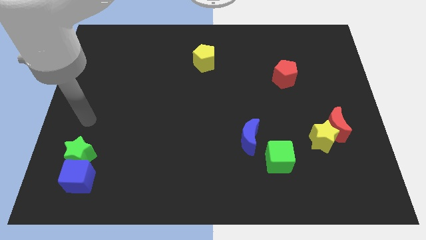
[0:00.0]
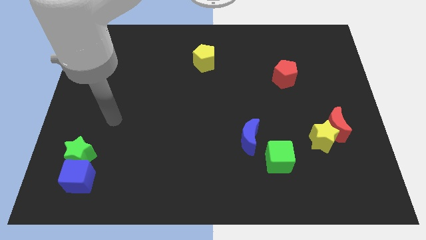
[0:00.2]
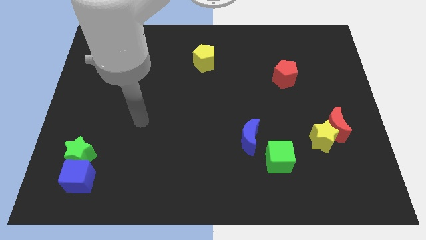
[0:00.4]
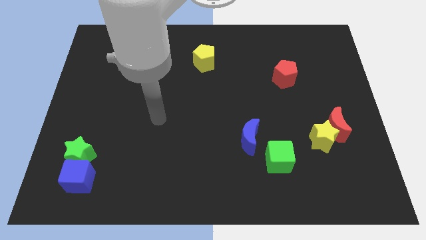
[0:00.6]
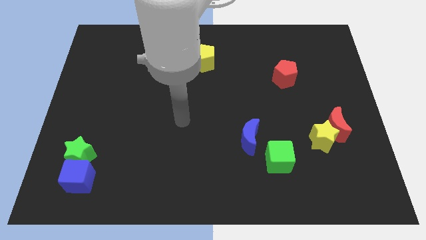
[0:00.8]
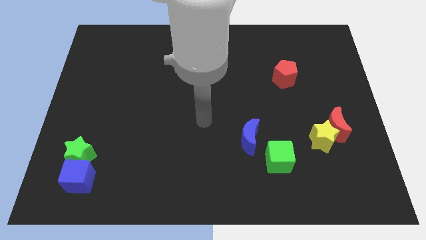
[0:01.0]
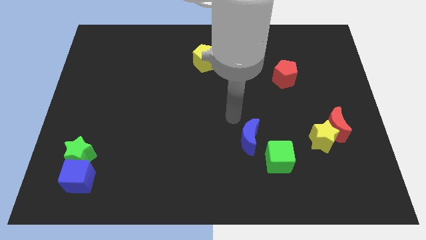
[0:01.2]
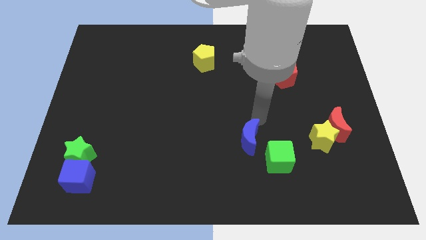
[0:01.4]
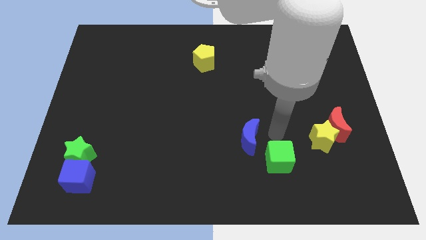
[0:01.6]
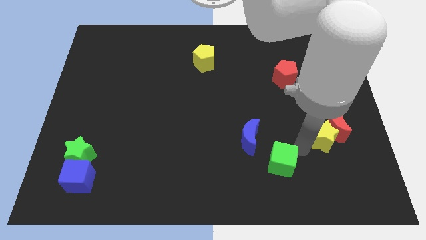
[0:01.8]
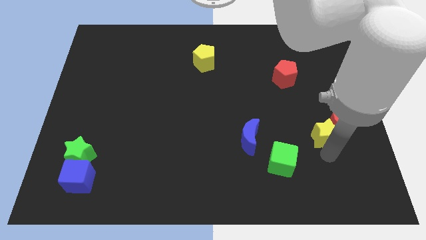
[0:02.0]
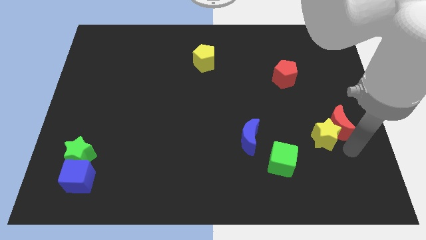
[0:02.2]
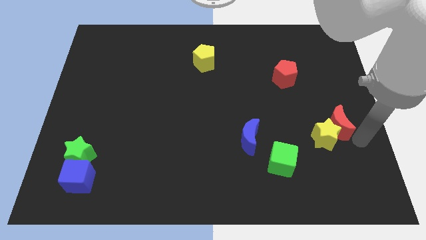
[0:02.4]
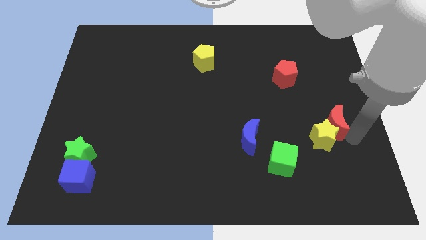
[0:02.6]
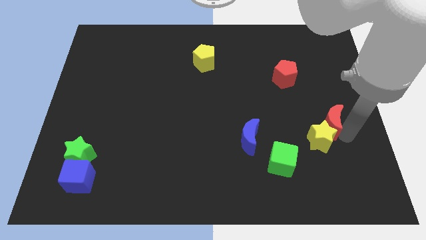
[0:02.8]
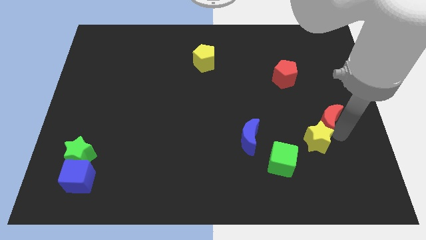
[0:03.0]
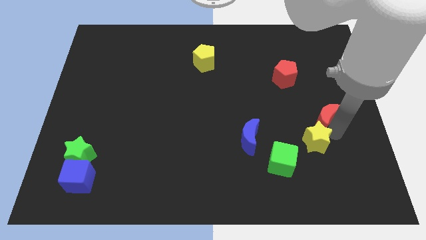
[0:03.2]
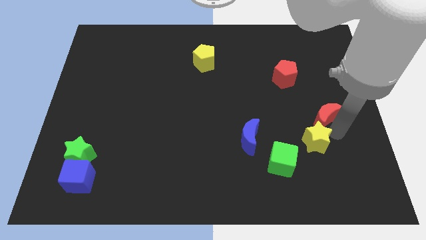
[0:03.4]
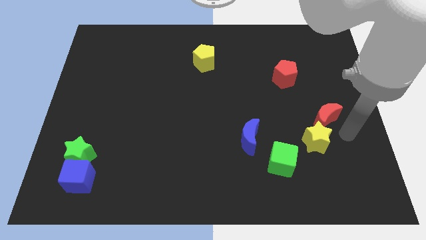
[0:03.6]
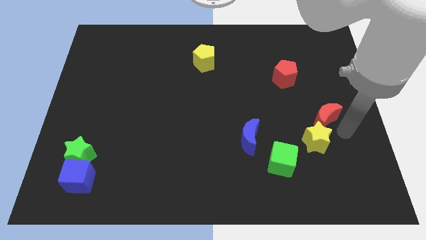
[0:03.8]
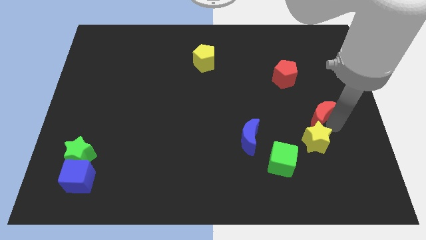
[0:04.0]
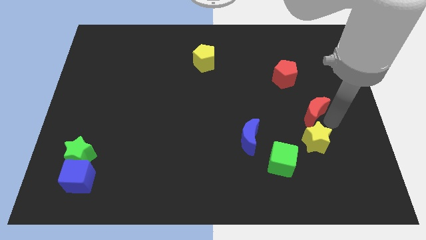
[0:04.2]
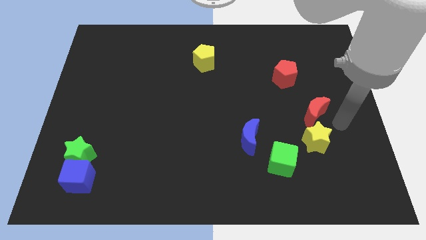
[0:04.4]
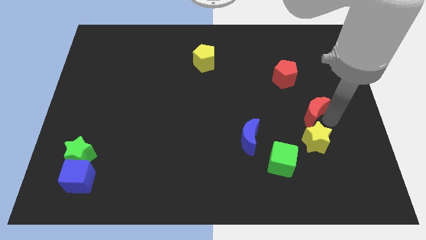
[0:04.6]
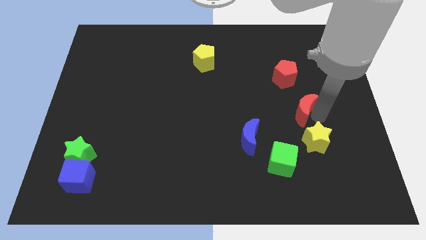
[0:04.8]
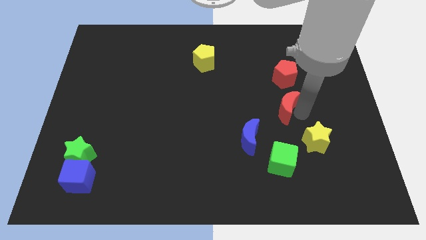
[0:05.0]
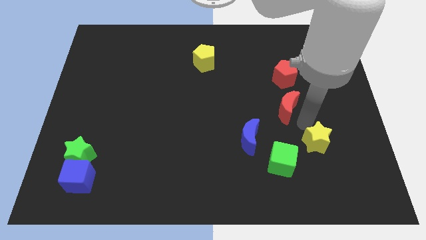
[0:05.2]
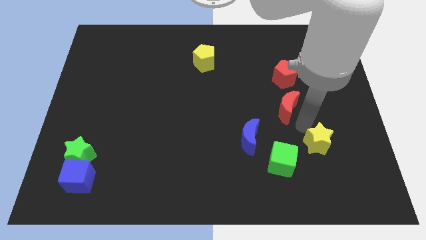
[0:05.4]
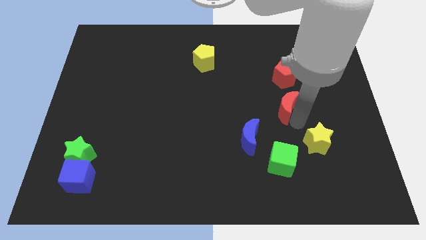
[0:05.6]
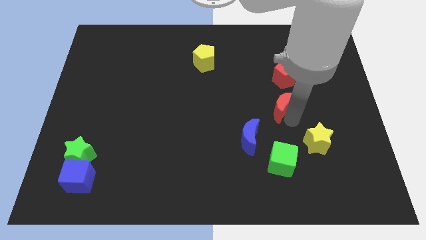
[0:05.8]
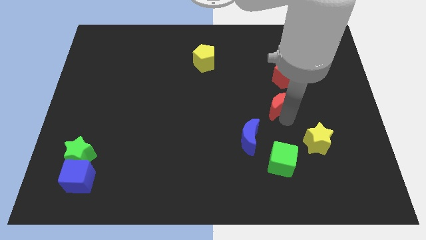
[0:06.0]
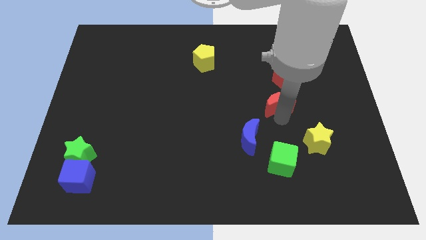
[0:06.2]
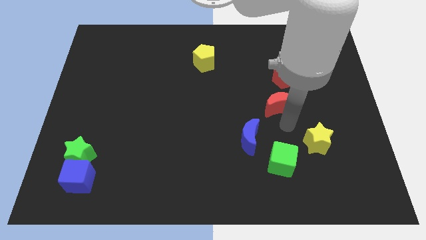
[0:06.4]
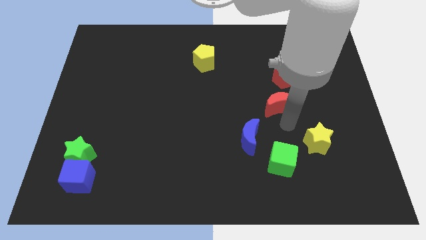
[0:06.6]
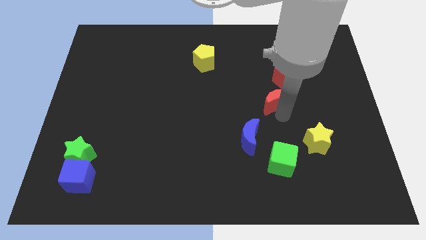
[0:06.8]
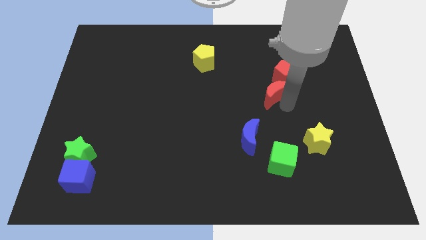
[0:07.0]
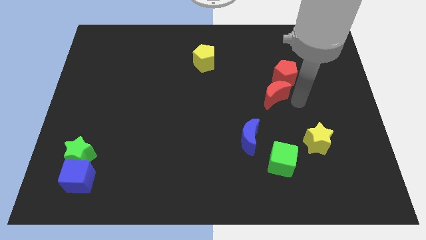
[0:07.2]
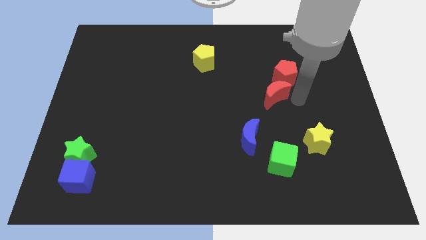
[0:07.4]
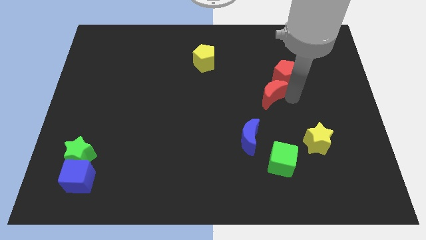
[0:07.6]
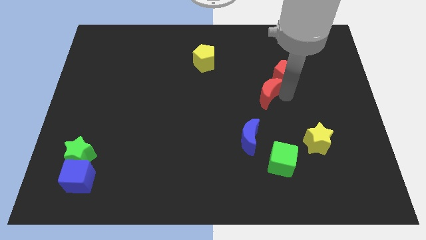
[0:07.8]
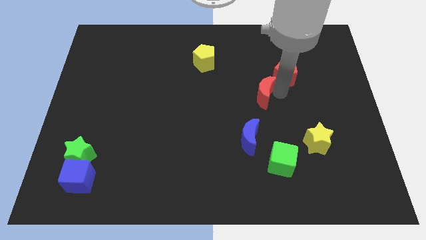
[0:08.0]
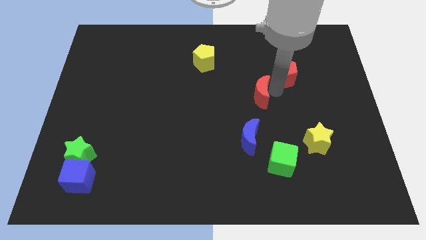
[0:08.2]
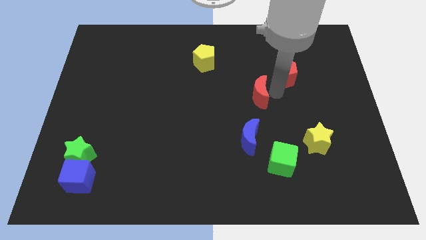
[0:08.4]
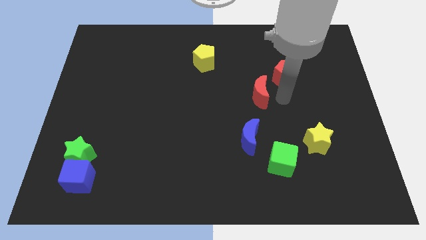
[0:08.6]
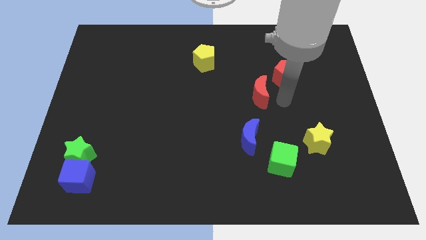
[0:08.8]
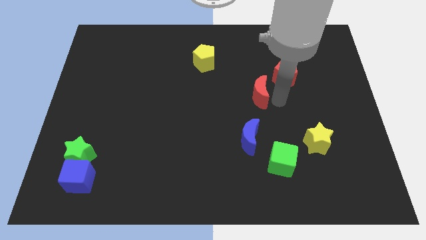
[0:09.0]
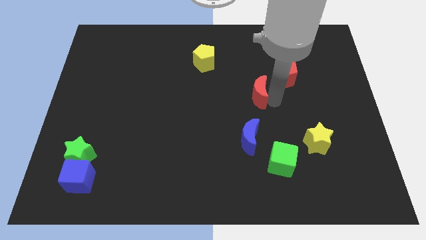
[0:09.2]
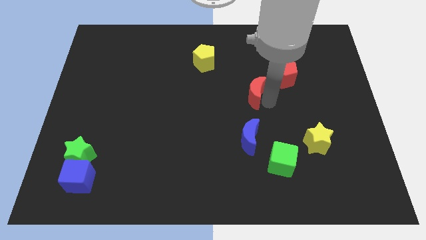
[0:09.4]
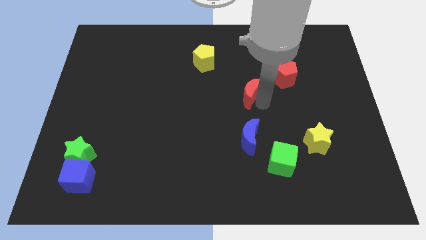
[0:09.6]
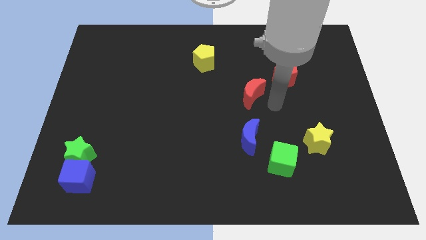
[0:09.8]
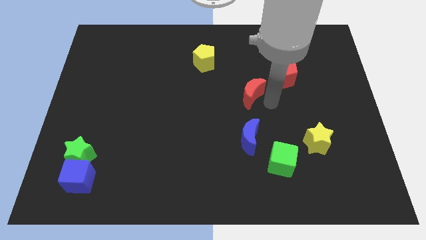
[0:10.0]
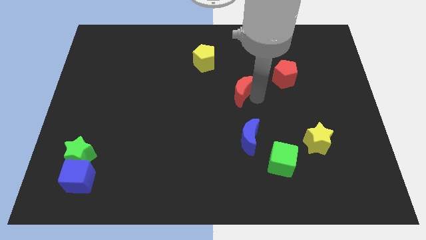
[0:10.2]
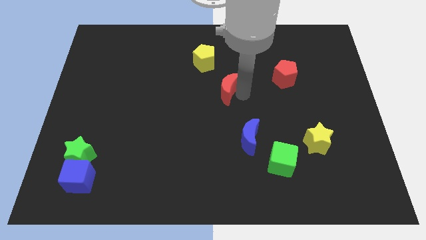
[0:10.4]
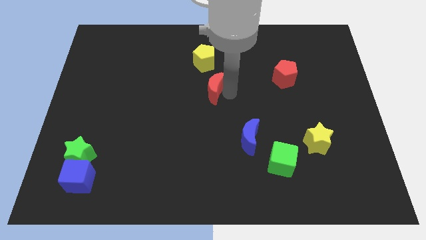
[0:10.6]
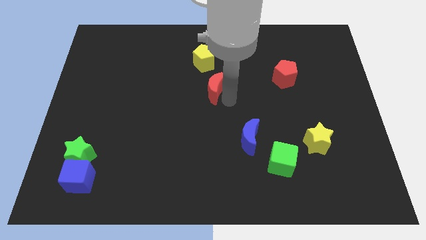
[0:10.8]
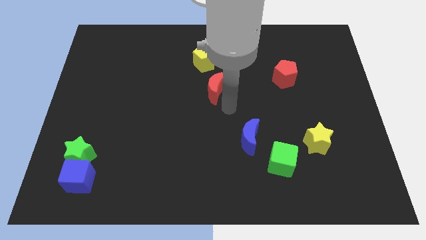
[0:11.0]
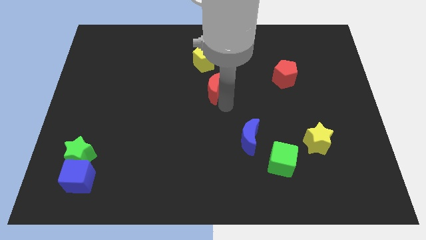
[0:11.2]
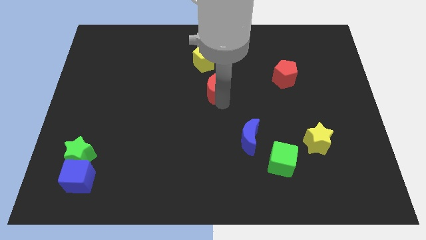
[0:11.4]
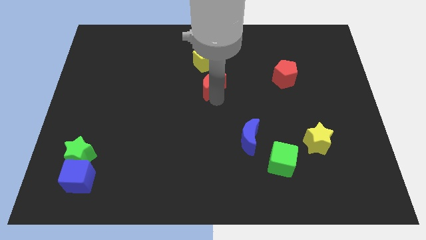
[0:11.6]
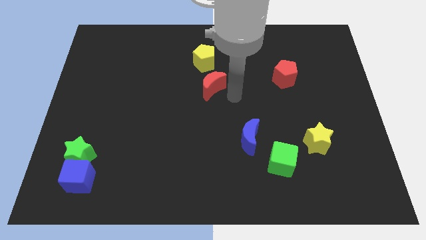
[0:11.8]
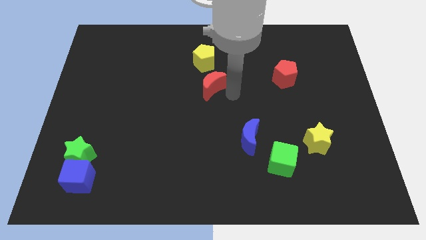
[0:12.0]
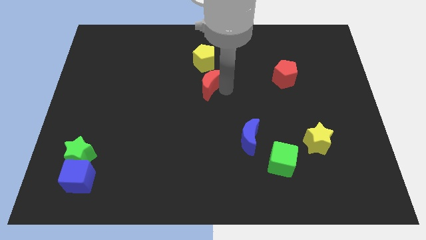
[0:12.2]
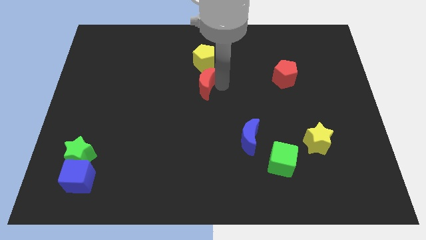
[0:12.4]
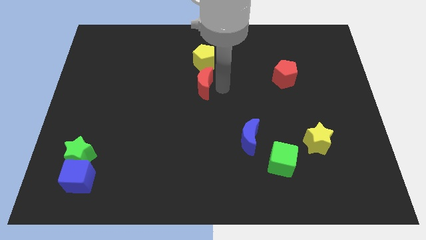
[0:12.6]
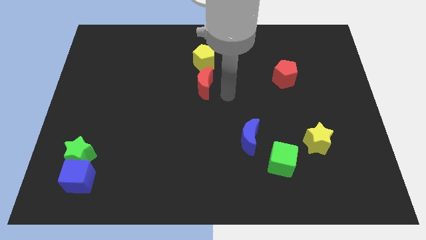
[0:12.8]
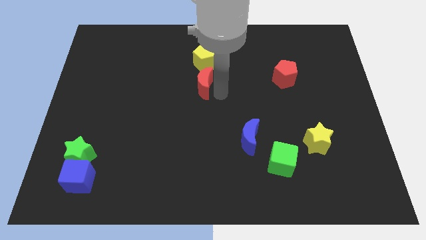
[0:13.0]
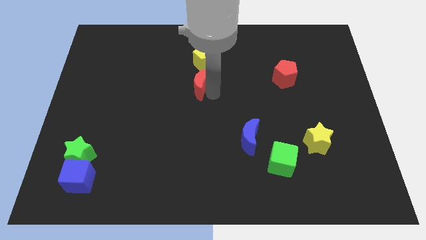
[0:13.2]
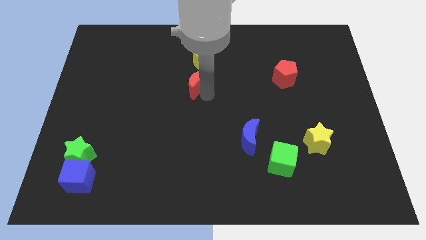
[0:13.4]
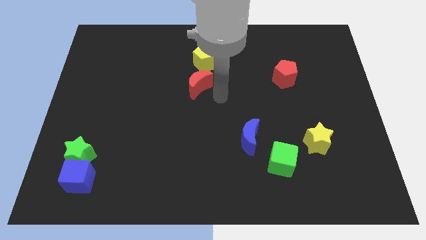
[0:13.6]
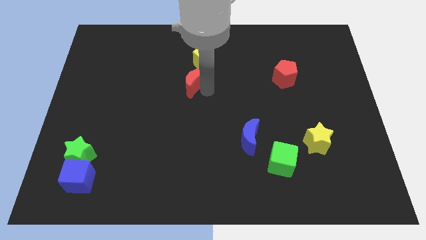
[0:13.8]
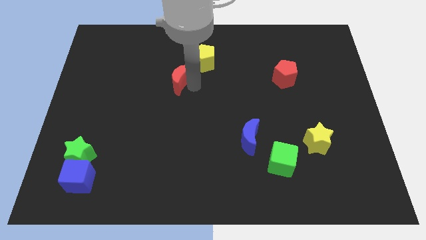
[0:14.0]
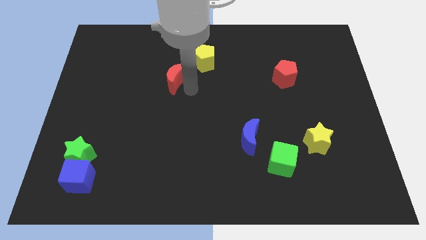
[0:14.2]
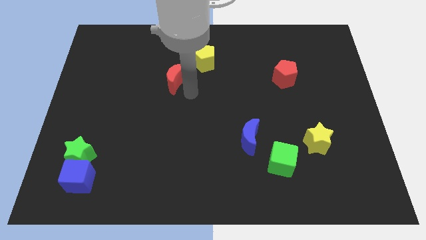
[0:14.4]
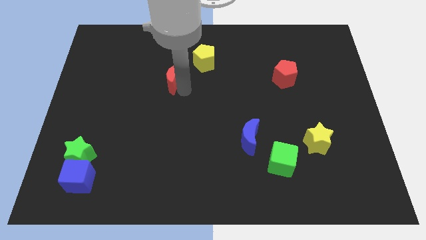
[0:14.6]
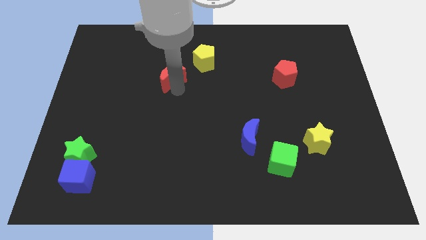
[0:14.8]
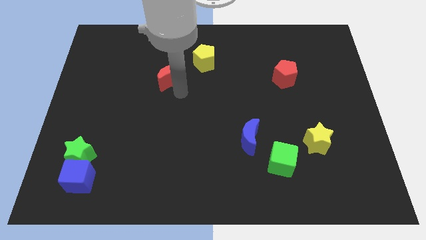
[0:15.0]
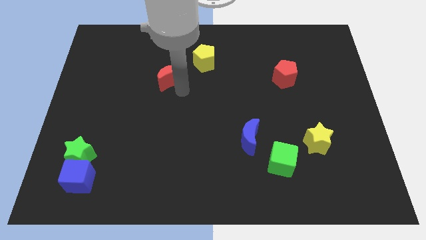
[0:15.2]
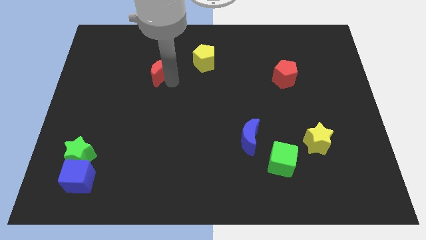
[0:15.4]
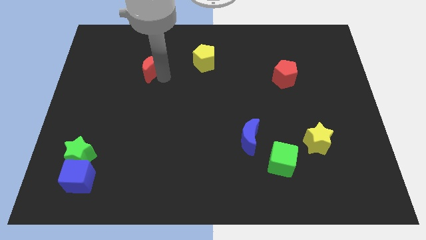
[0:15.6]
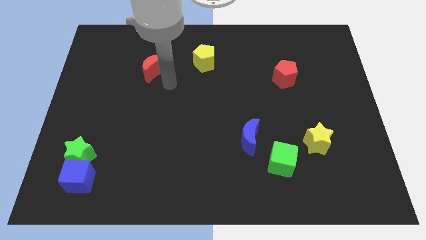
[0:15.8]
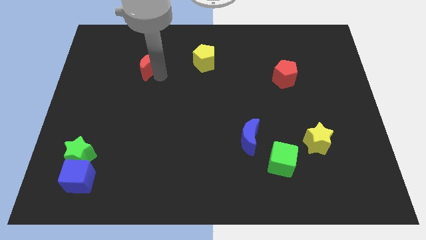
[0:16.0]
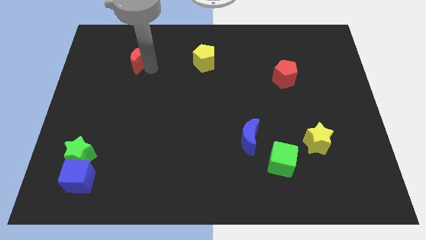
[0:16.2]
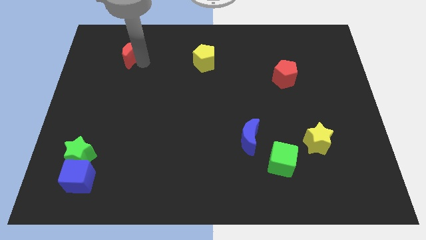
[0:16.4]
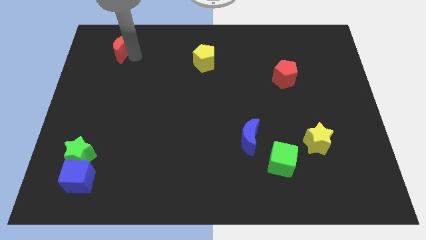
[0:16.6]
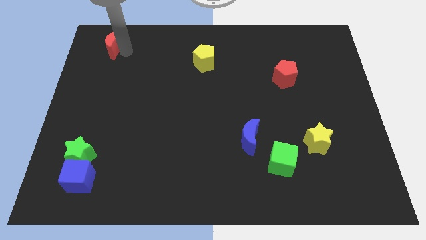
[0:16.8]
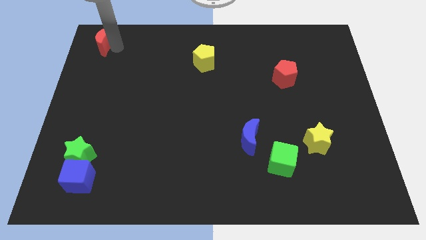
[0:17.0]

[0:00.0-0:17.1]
put the red moon to the top left of the board
